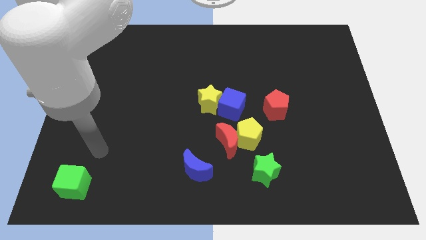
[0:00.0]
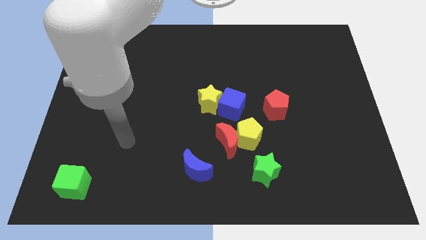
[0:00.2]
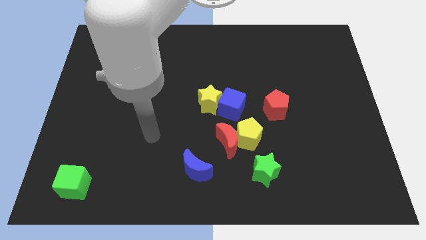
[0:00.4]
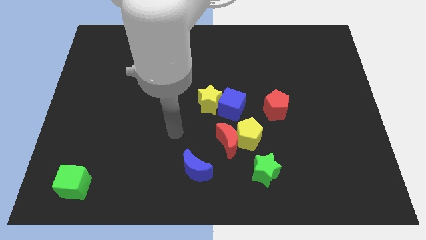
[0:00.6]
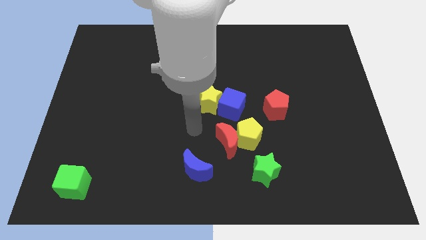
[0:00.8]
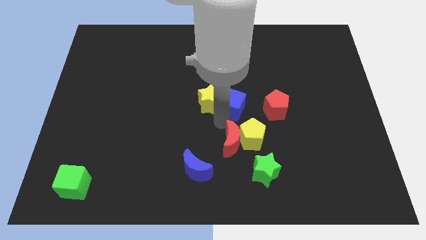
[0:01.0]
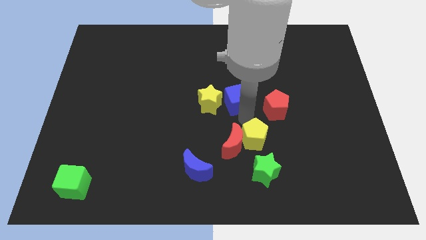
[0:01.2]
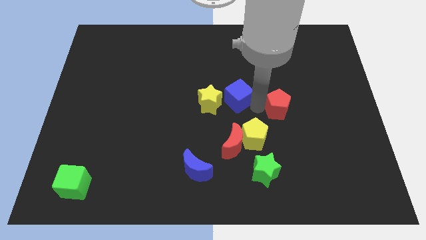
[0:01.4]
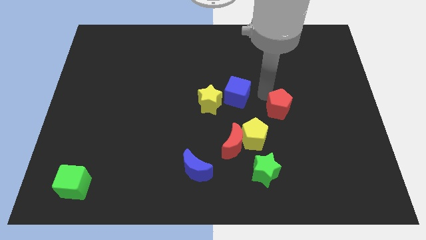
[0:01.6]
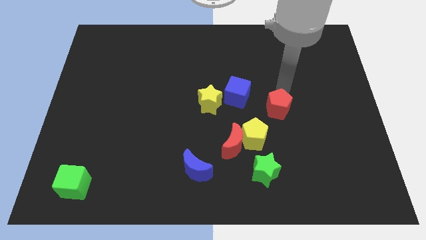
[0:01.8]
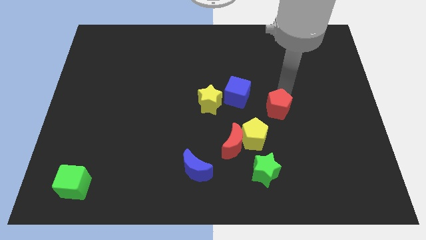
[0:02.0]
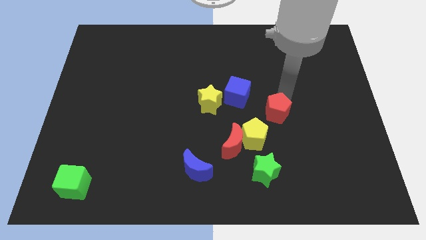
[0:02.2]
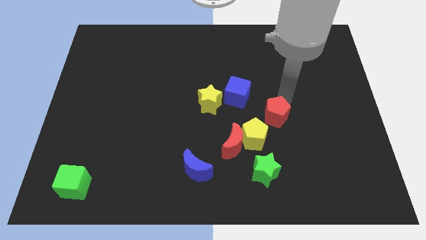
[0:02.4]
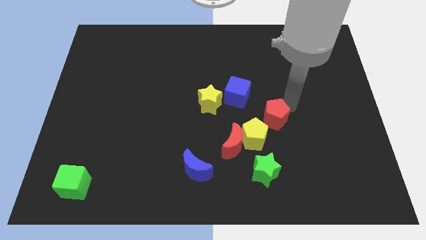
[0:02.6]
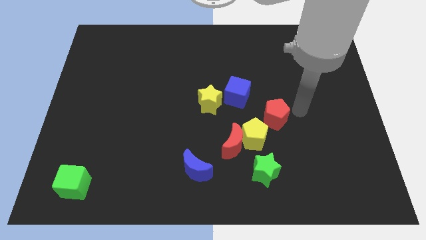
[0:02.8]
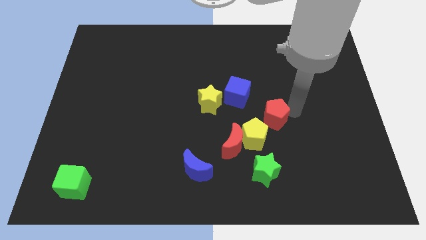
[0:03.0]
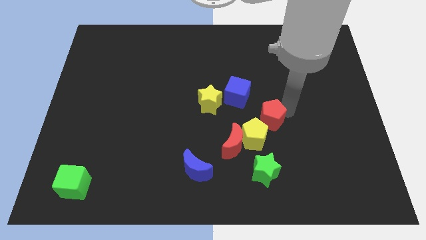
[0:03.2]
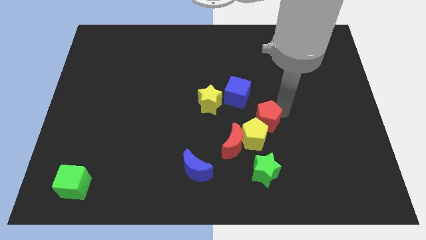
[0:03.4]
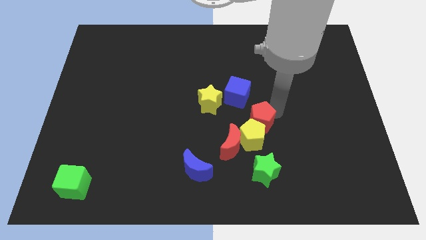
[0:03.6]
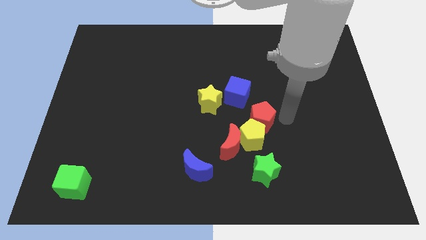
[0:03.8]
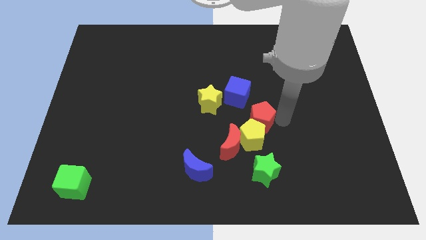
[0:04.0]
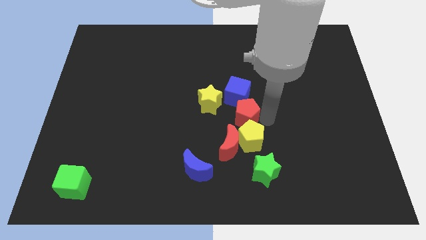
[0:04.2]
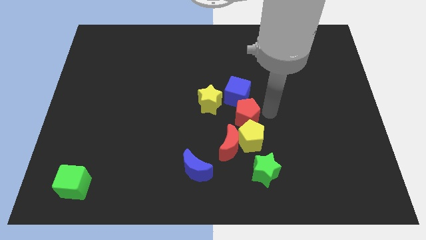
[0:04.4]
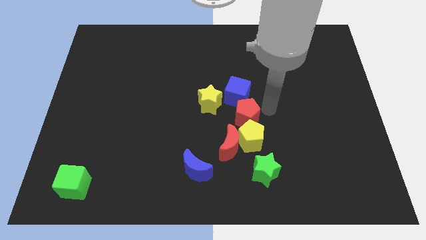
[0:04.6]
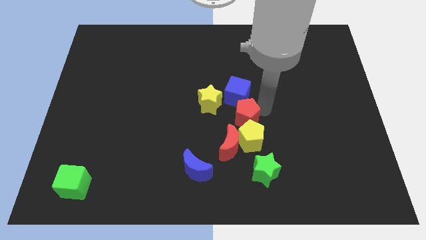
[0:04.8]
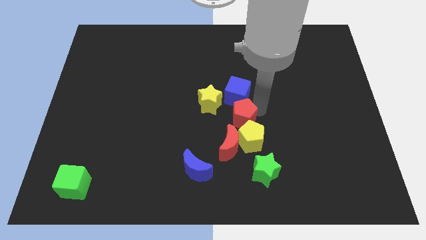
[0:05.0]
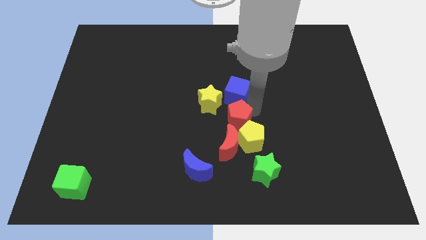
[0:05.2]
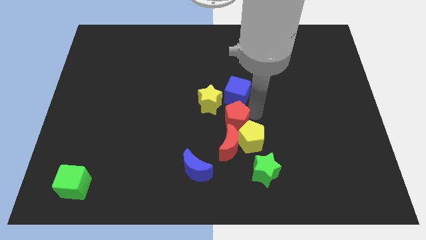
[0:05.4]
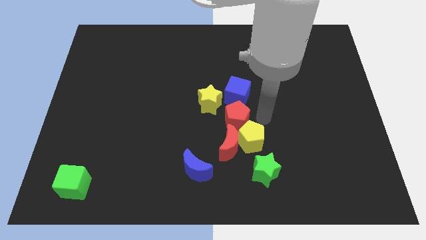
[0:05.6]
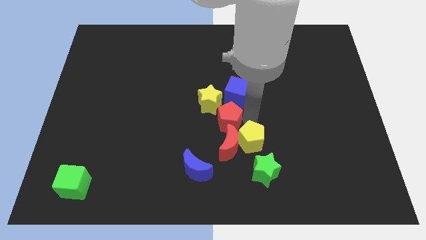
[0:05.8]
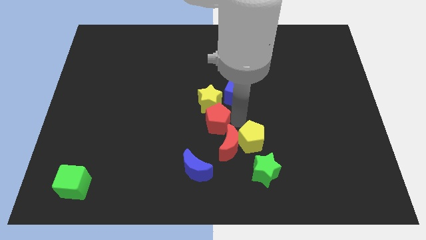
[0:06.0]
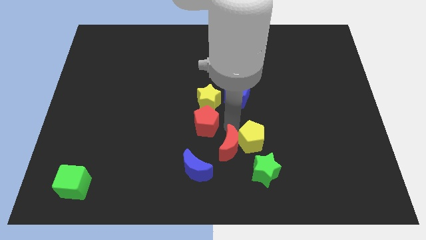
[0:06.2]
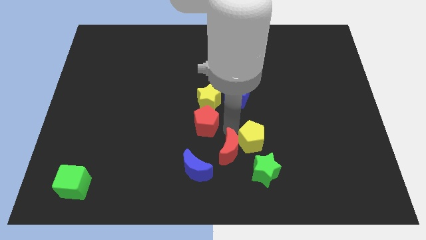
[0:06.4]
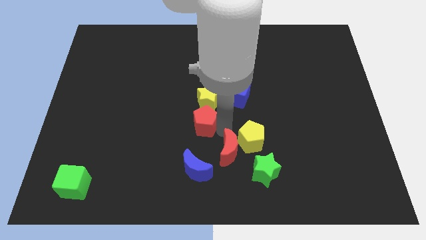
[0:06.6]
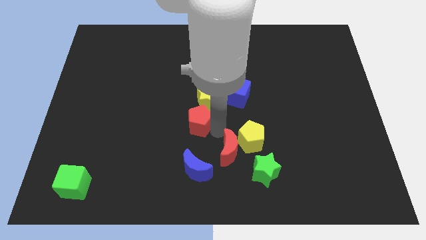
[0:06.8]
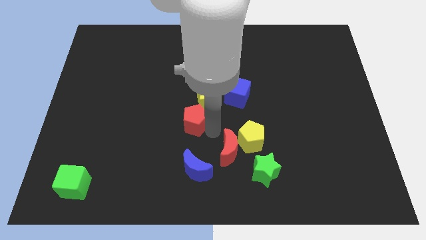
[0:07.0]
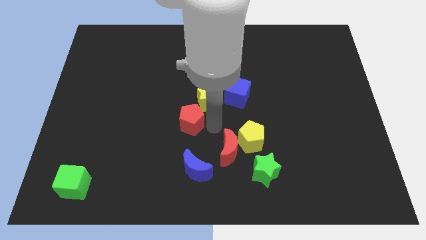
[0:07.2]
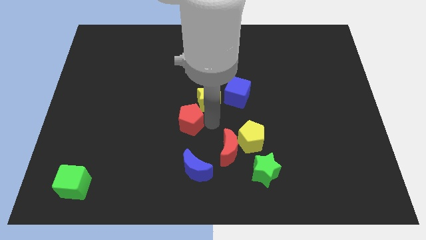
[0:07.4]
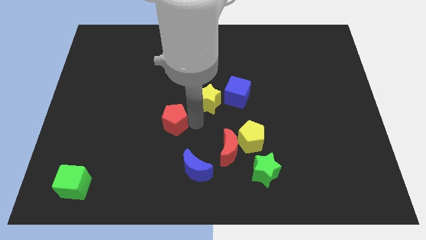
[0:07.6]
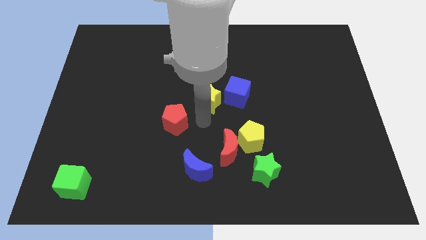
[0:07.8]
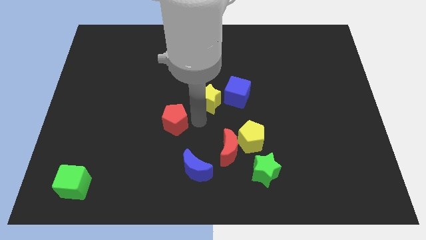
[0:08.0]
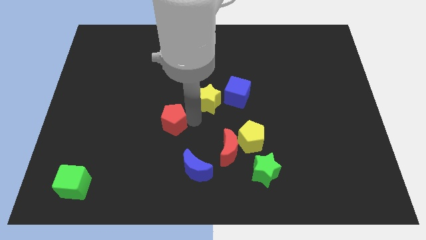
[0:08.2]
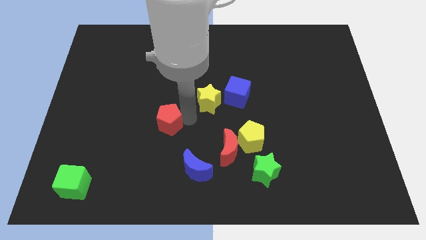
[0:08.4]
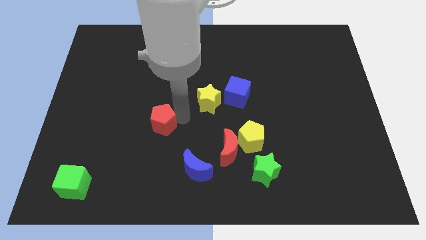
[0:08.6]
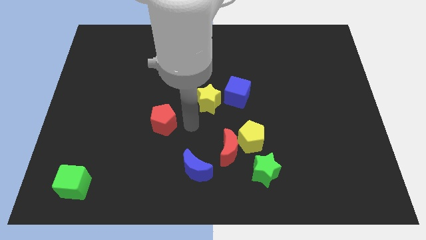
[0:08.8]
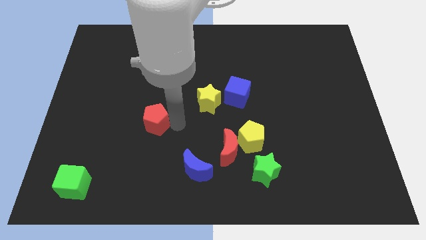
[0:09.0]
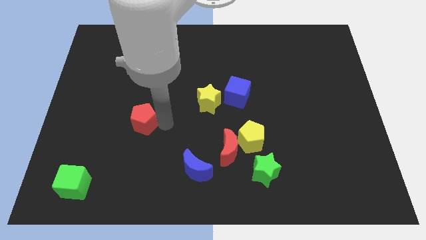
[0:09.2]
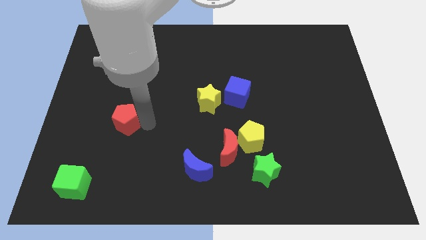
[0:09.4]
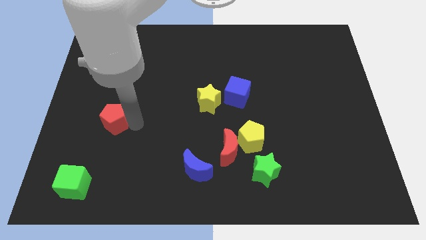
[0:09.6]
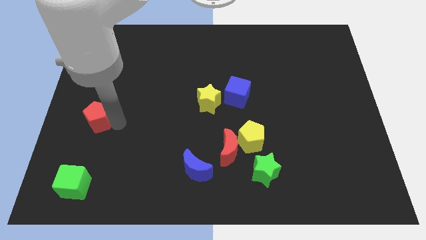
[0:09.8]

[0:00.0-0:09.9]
slide the red pentagon to the left side
